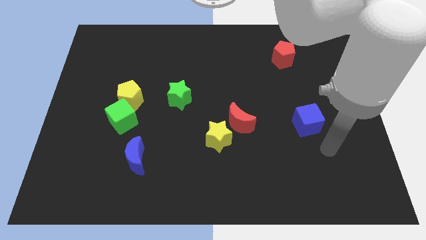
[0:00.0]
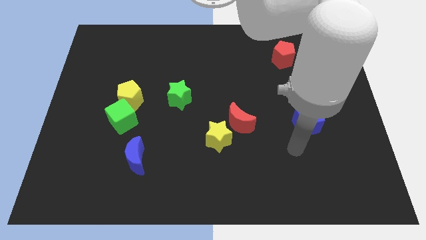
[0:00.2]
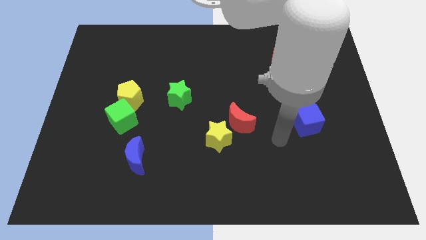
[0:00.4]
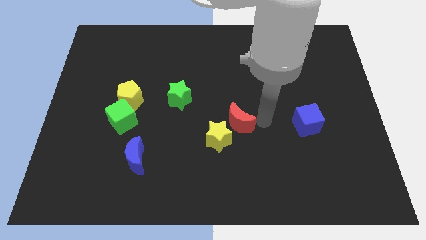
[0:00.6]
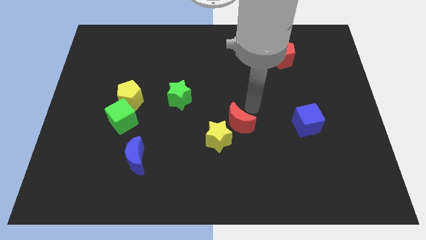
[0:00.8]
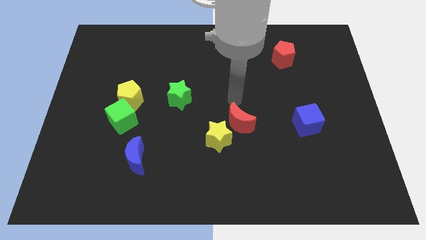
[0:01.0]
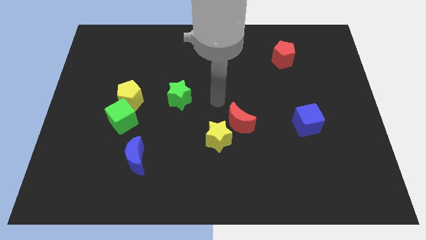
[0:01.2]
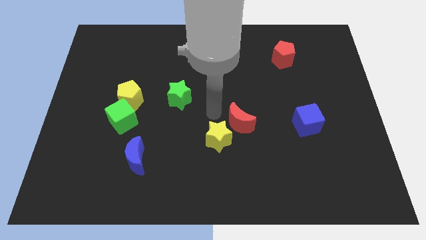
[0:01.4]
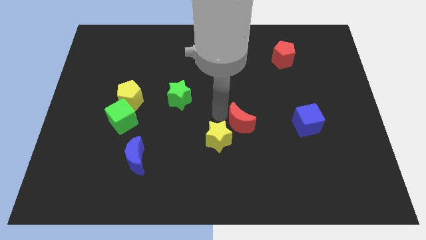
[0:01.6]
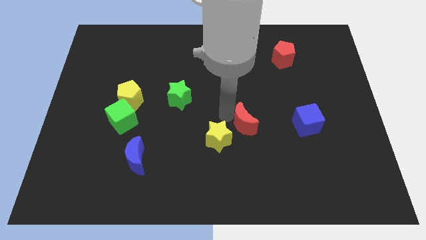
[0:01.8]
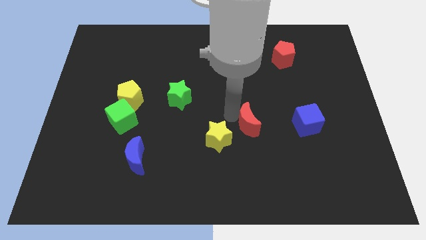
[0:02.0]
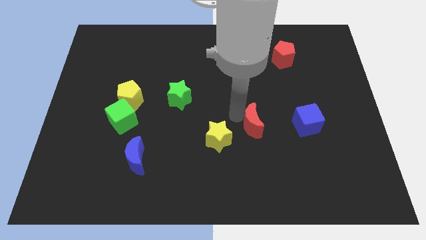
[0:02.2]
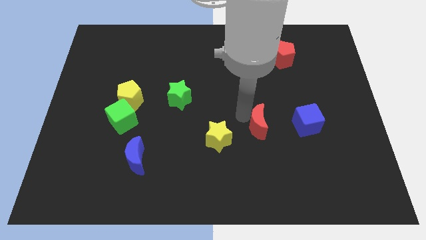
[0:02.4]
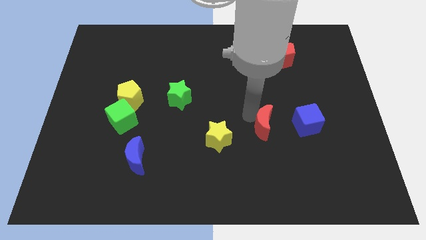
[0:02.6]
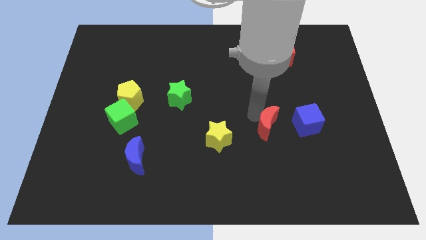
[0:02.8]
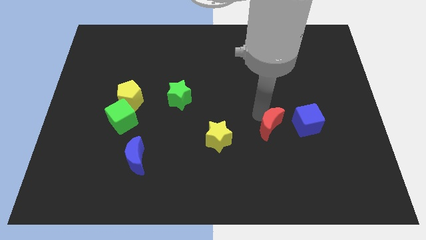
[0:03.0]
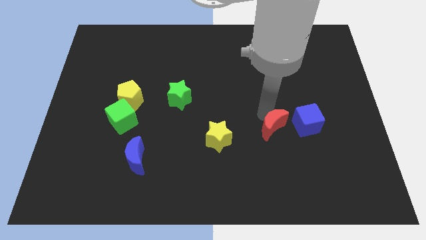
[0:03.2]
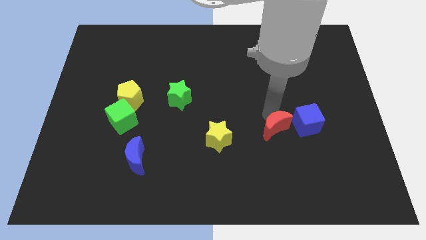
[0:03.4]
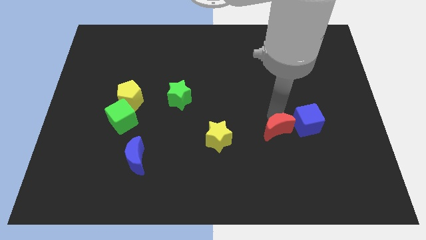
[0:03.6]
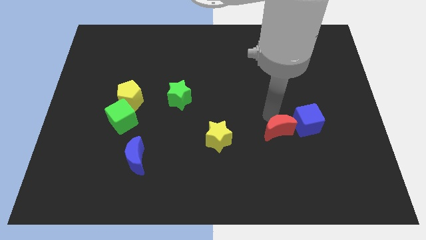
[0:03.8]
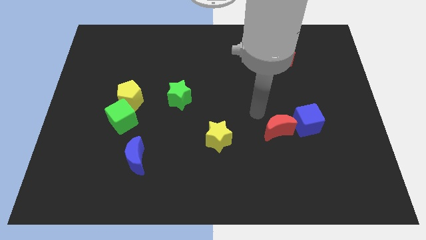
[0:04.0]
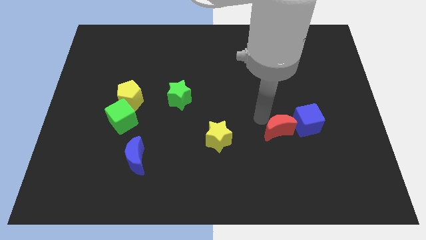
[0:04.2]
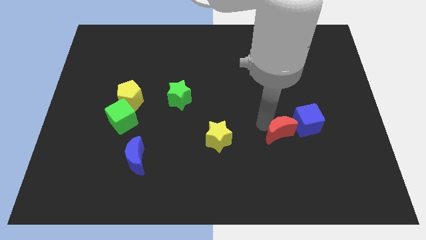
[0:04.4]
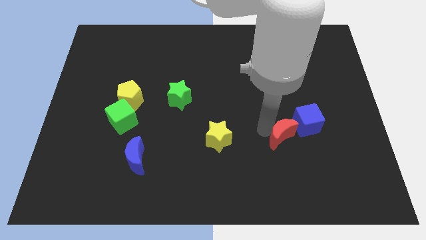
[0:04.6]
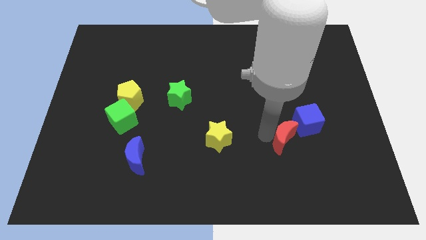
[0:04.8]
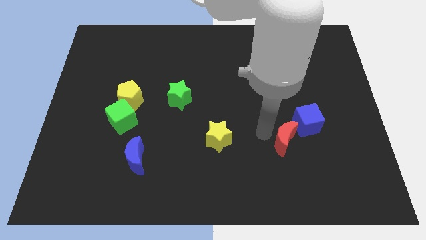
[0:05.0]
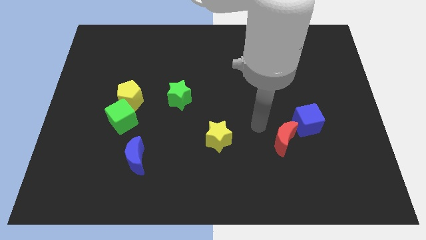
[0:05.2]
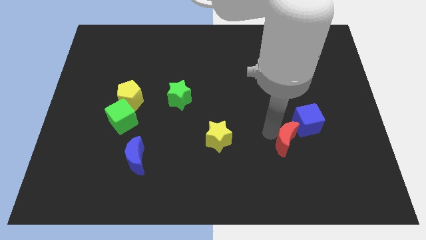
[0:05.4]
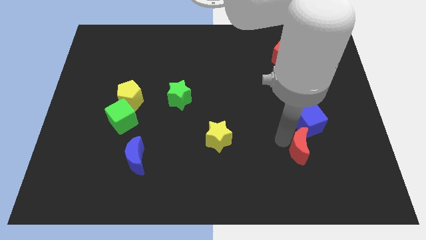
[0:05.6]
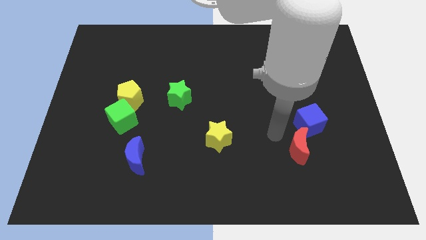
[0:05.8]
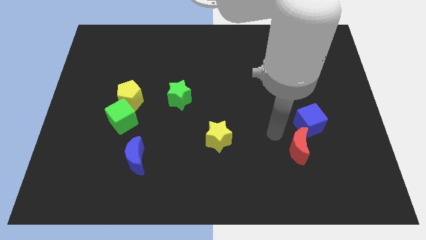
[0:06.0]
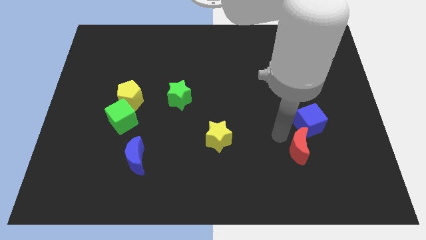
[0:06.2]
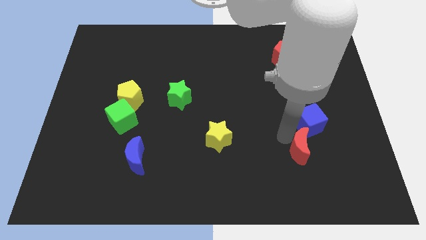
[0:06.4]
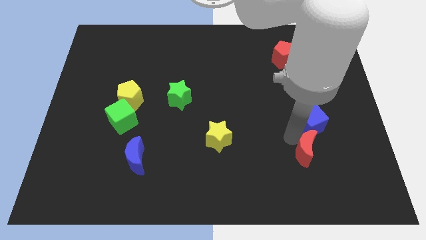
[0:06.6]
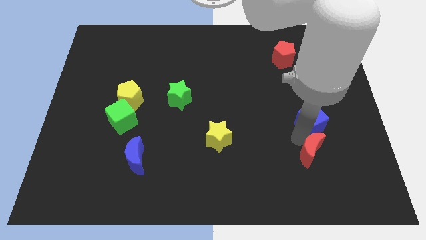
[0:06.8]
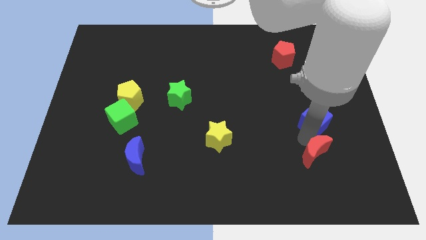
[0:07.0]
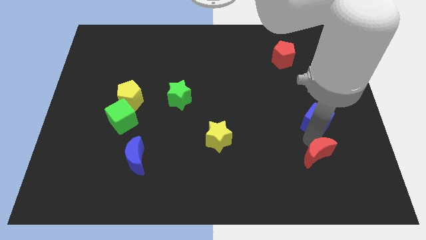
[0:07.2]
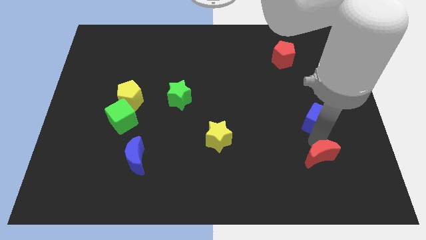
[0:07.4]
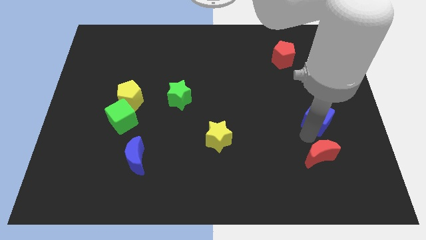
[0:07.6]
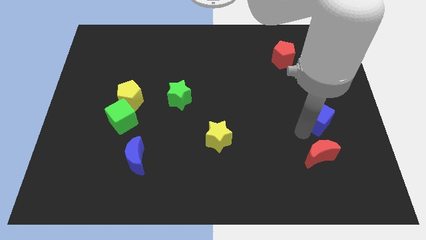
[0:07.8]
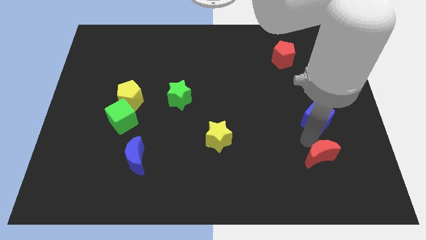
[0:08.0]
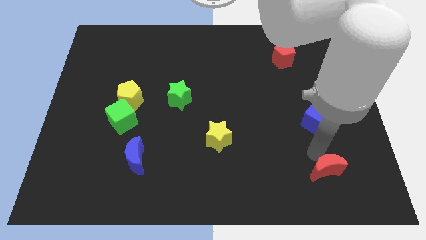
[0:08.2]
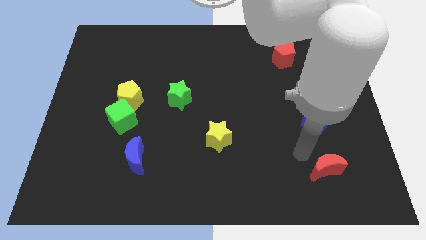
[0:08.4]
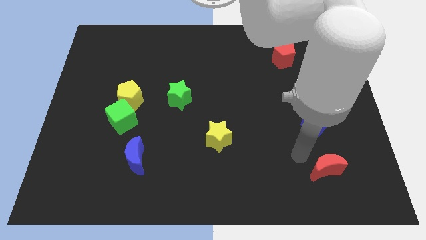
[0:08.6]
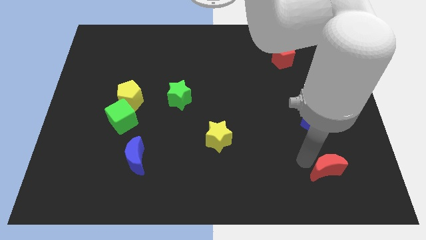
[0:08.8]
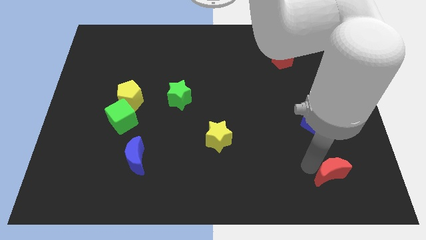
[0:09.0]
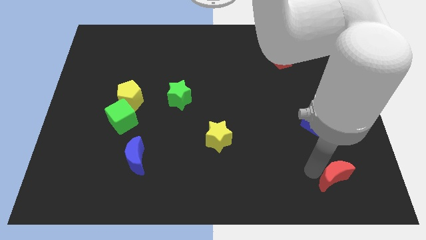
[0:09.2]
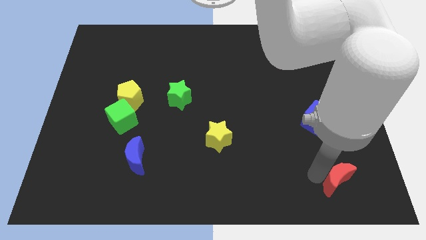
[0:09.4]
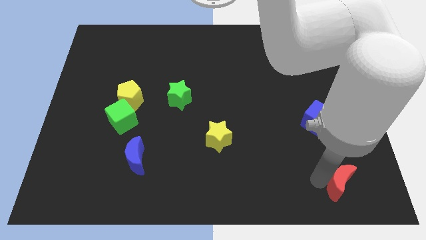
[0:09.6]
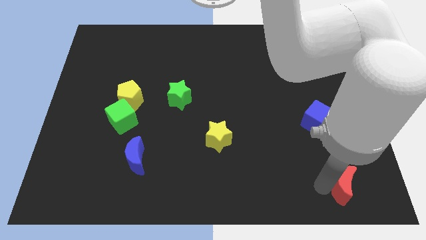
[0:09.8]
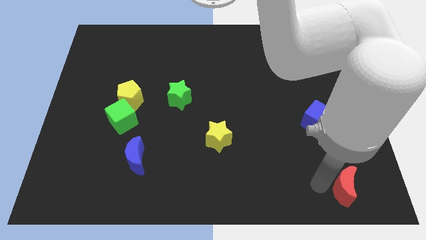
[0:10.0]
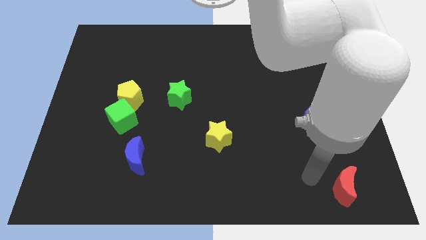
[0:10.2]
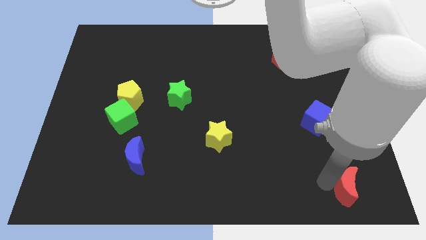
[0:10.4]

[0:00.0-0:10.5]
push the red moon to the bottom right corner

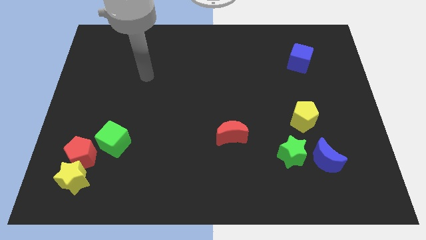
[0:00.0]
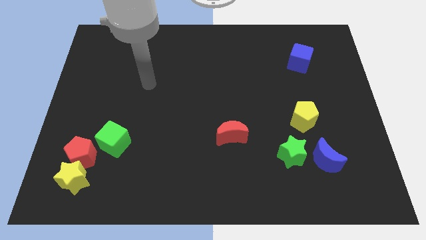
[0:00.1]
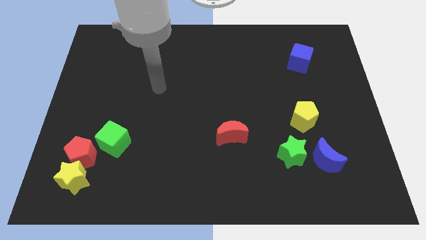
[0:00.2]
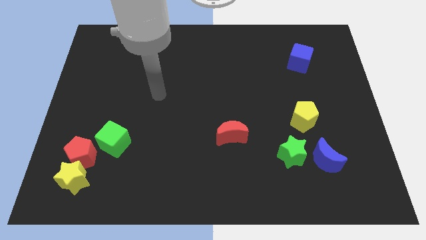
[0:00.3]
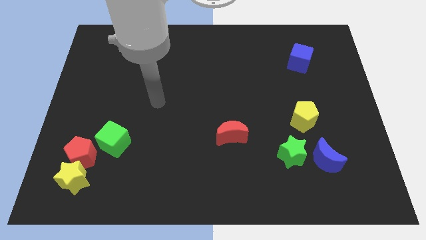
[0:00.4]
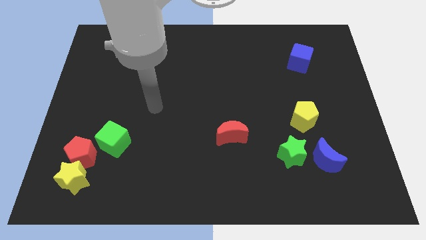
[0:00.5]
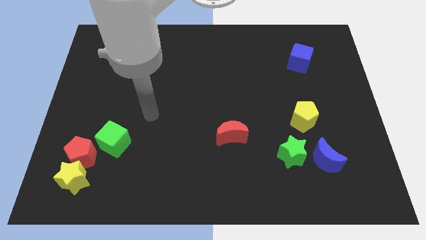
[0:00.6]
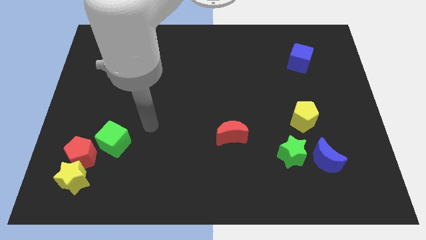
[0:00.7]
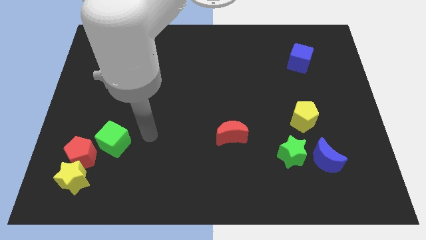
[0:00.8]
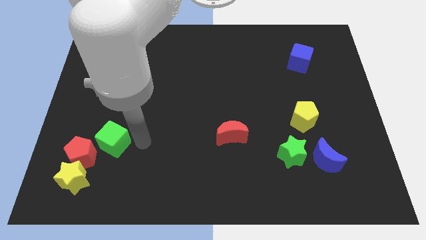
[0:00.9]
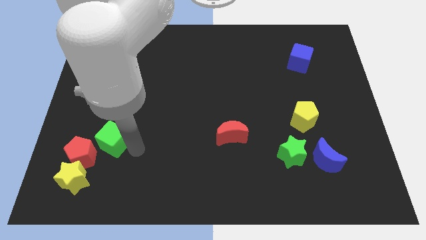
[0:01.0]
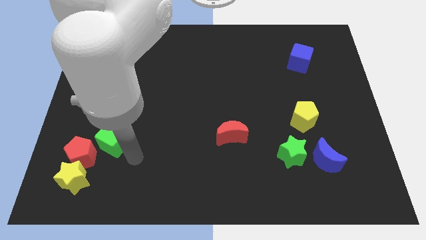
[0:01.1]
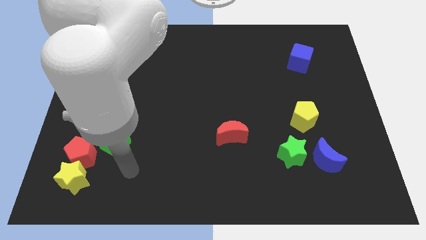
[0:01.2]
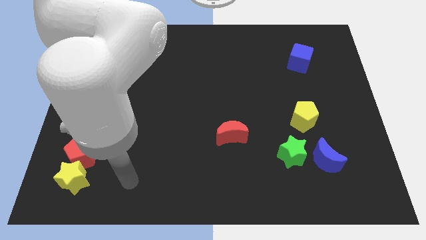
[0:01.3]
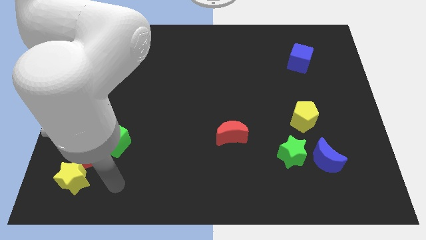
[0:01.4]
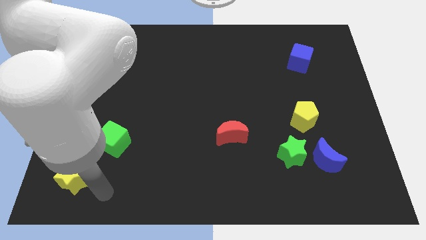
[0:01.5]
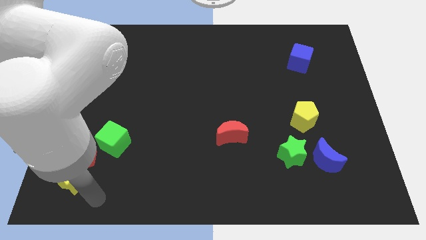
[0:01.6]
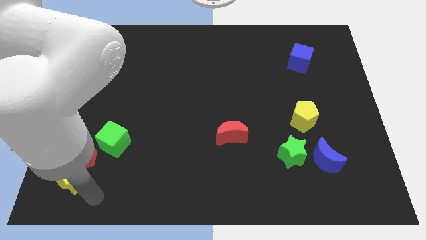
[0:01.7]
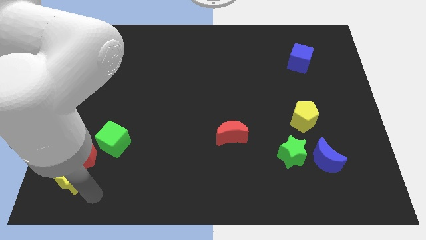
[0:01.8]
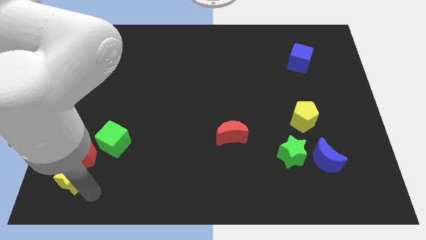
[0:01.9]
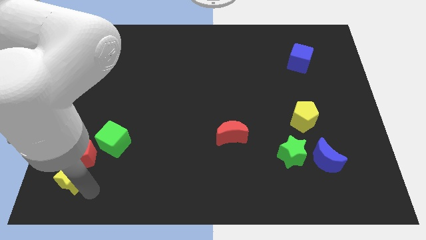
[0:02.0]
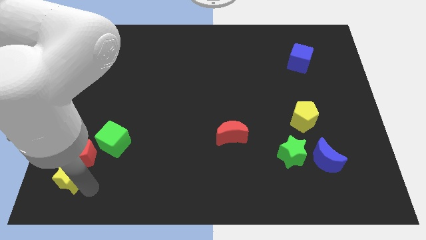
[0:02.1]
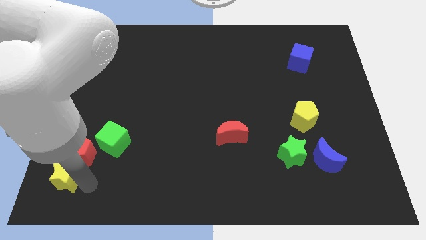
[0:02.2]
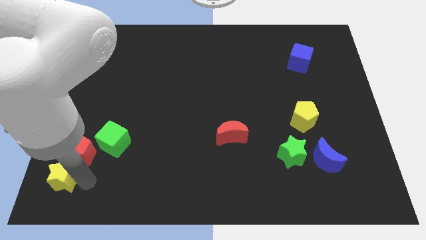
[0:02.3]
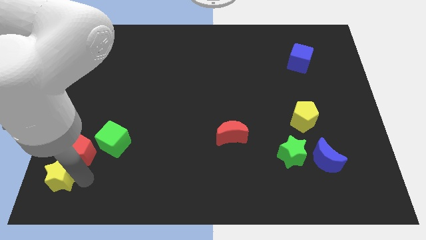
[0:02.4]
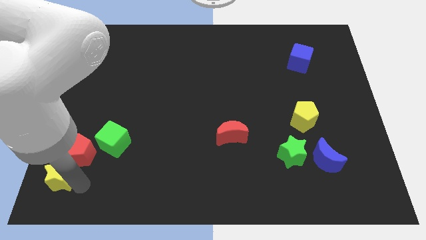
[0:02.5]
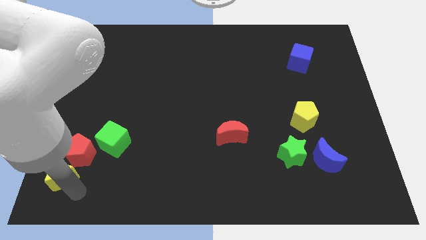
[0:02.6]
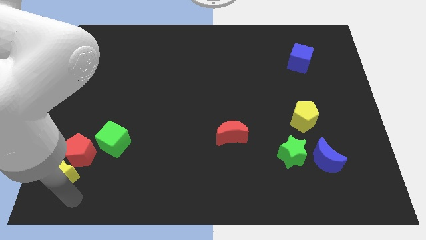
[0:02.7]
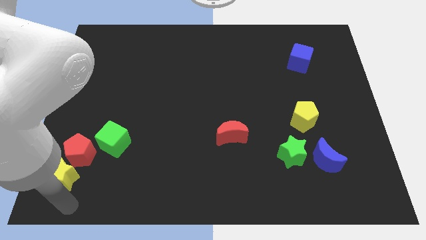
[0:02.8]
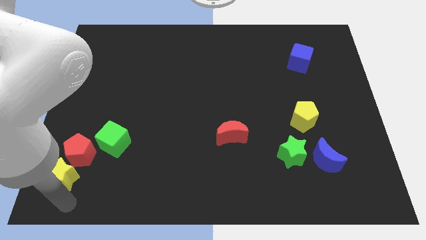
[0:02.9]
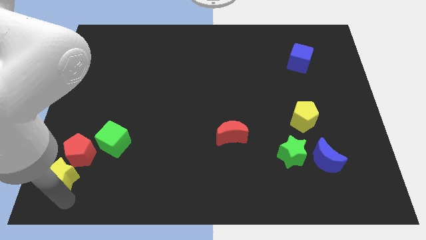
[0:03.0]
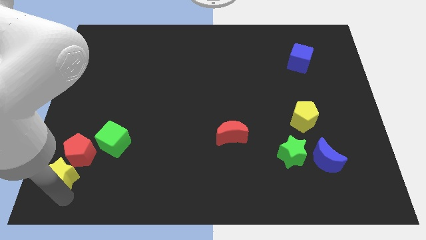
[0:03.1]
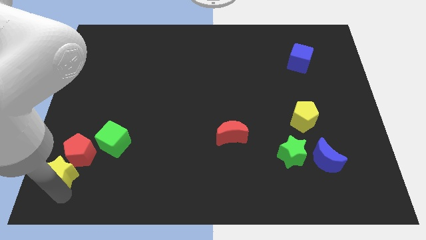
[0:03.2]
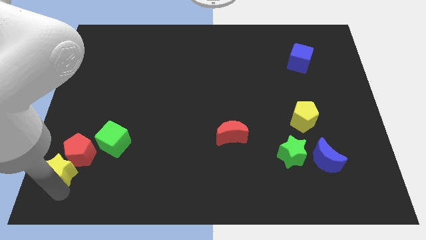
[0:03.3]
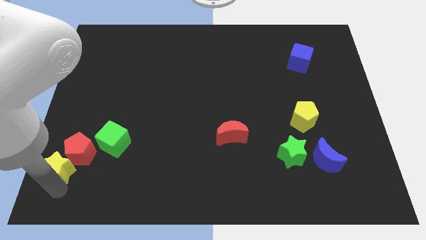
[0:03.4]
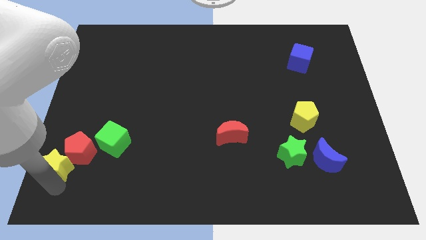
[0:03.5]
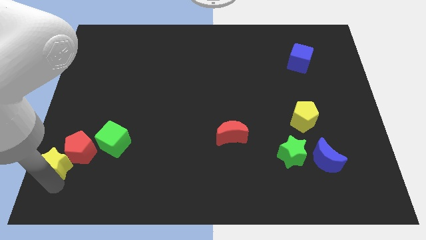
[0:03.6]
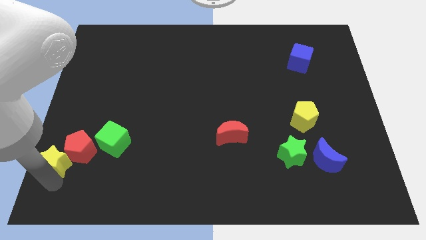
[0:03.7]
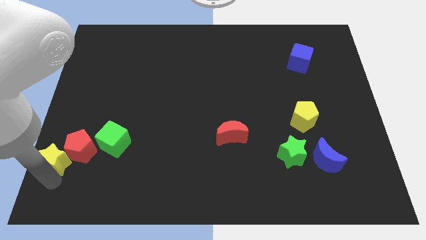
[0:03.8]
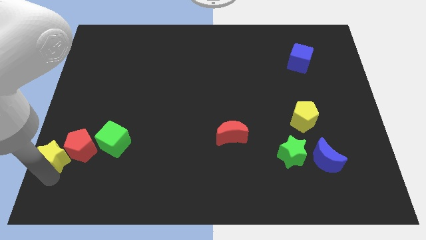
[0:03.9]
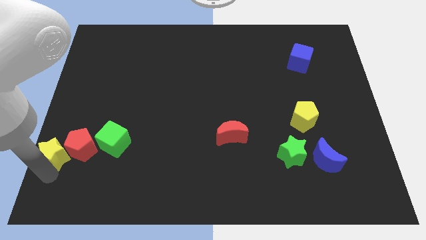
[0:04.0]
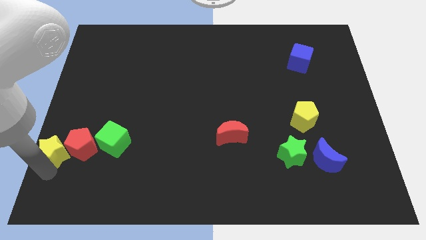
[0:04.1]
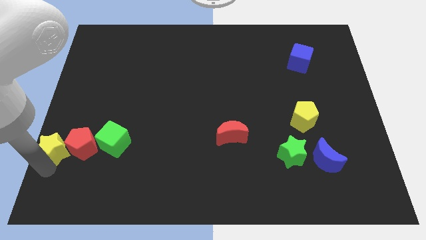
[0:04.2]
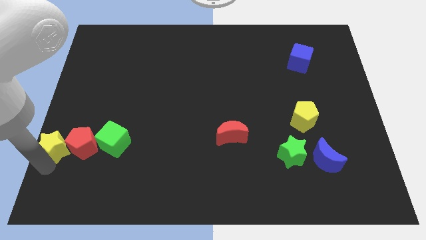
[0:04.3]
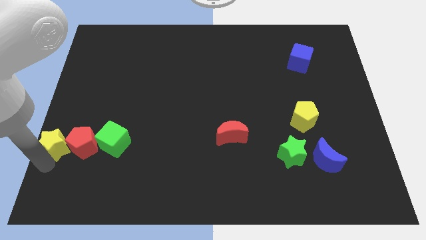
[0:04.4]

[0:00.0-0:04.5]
move the yellow star to the left side
